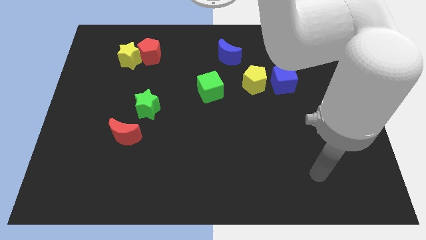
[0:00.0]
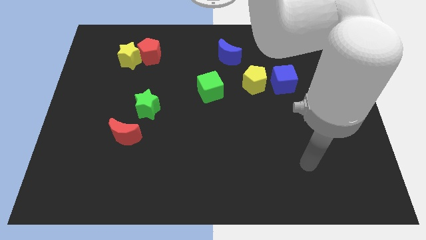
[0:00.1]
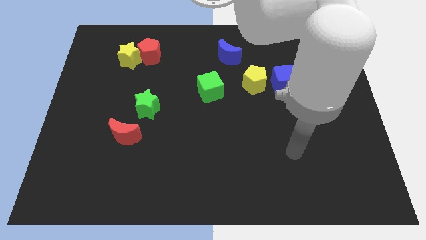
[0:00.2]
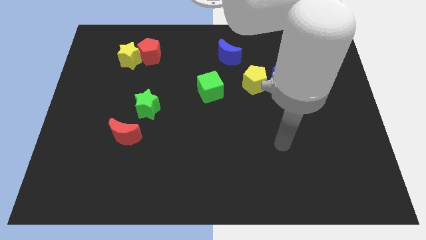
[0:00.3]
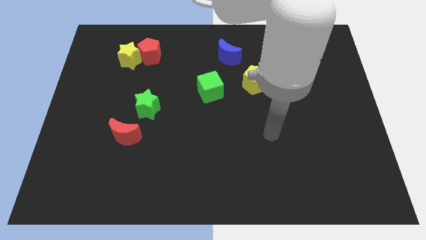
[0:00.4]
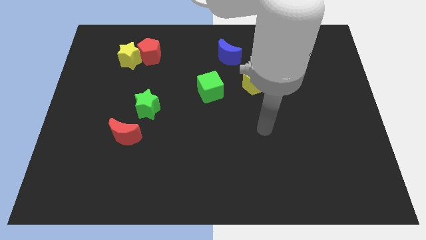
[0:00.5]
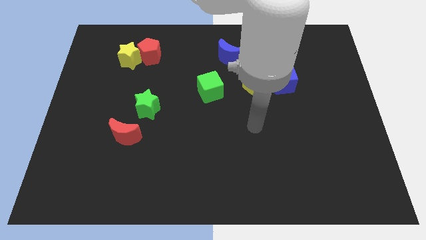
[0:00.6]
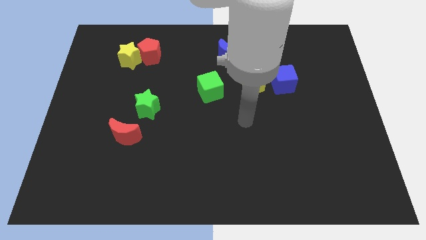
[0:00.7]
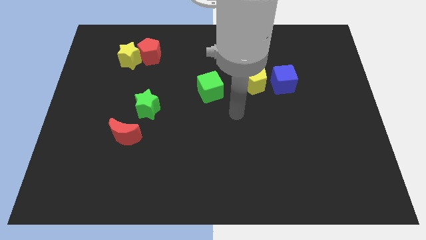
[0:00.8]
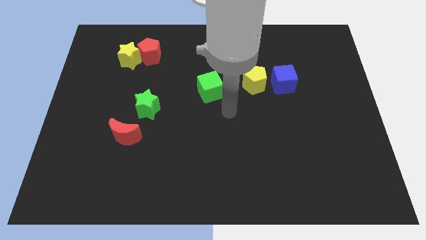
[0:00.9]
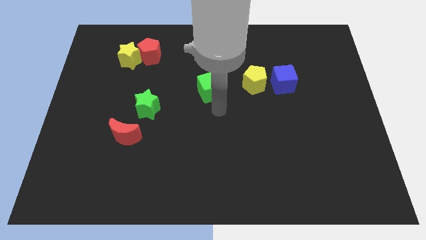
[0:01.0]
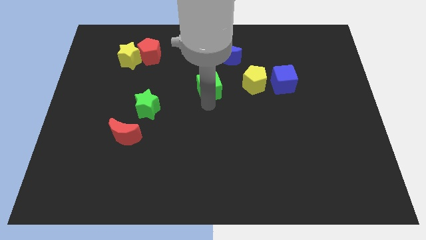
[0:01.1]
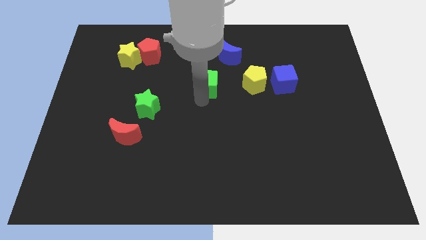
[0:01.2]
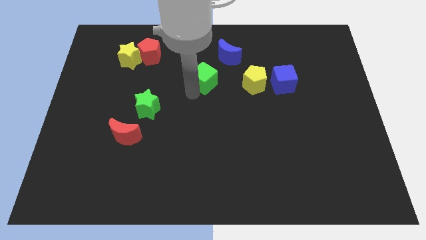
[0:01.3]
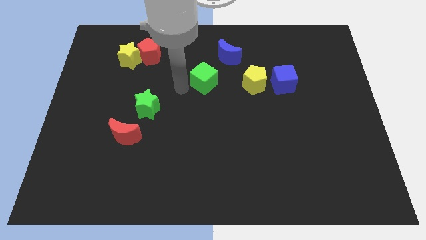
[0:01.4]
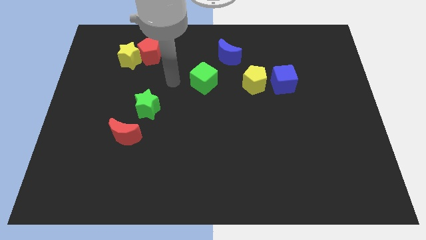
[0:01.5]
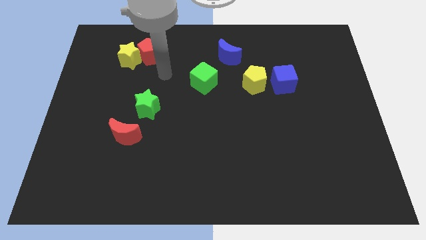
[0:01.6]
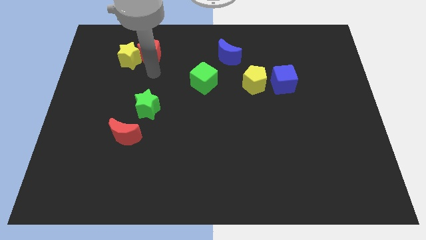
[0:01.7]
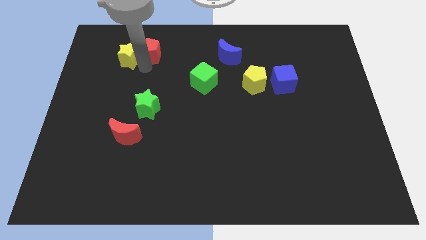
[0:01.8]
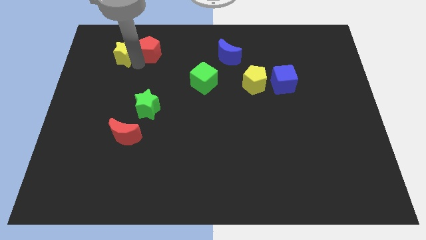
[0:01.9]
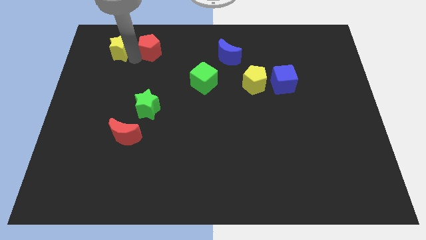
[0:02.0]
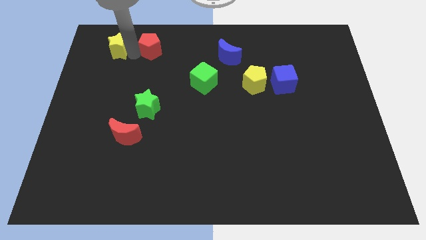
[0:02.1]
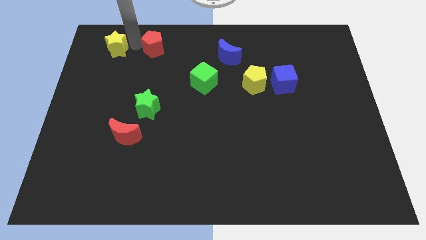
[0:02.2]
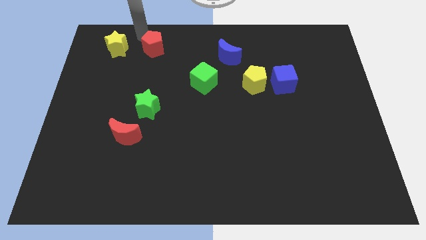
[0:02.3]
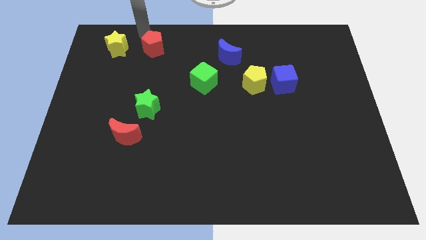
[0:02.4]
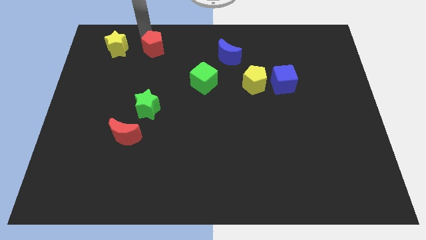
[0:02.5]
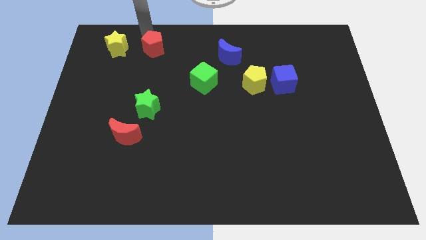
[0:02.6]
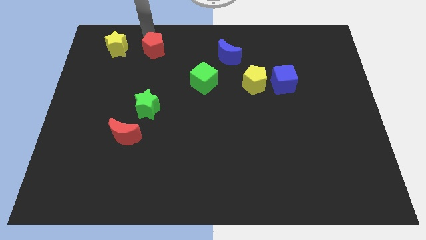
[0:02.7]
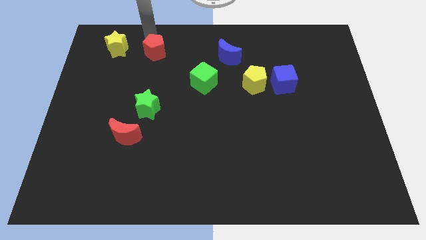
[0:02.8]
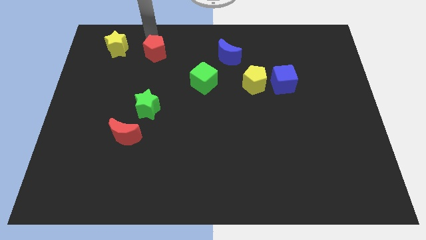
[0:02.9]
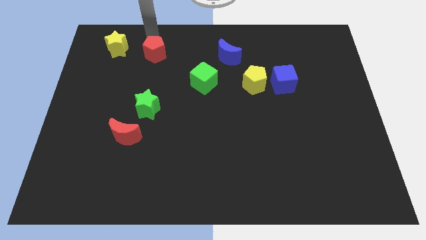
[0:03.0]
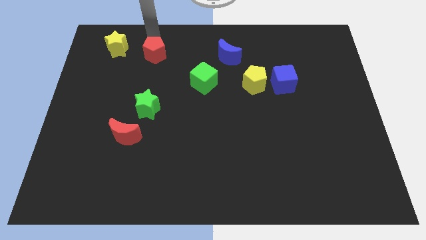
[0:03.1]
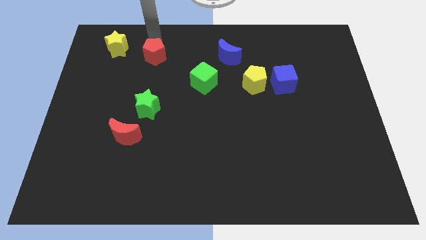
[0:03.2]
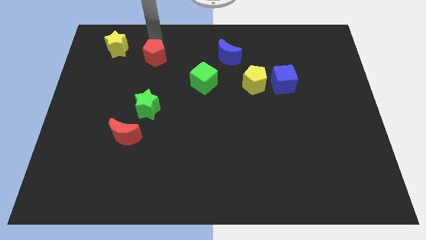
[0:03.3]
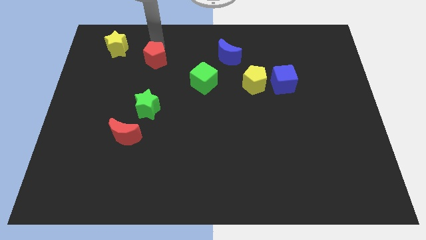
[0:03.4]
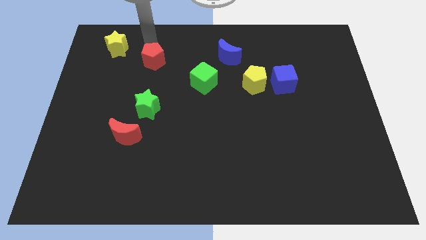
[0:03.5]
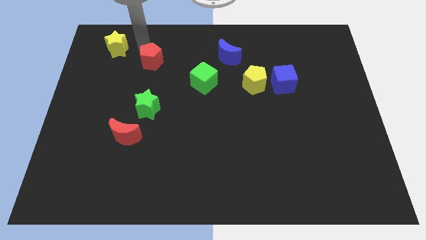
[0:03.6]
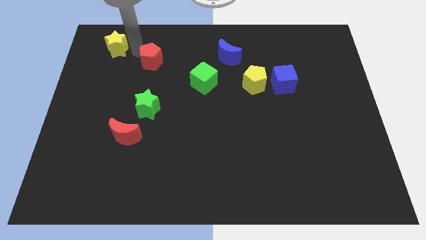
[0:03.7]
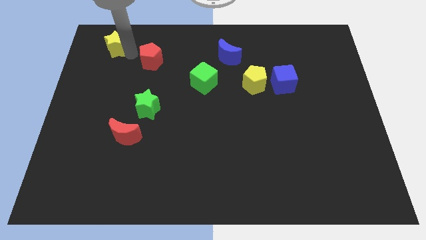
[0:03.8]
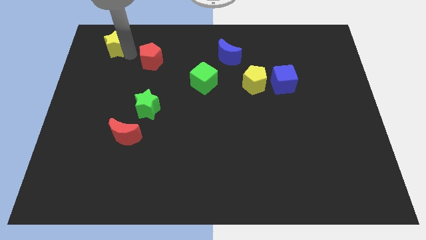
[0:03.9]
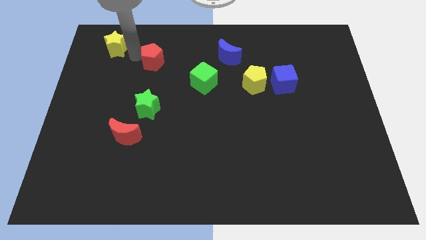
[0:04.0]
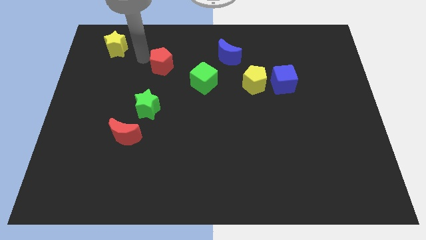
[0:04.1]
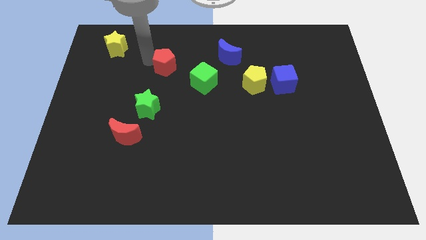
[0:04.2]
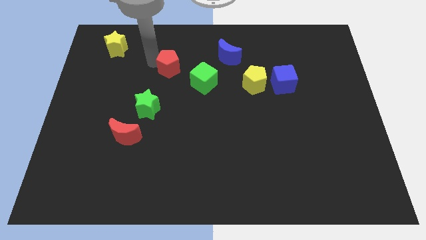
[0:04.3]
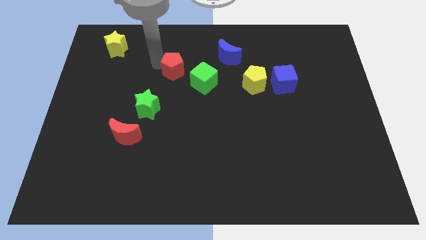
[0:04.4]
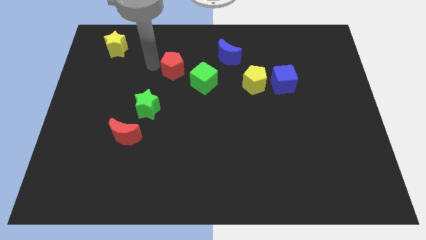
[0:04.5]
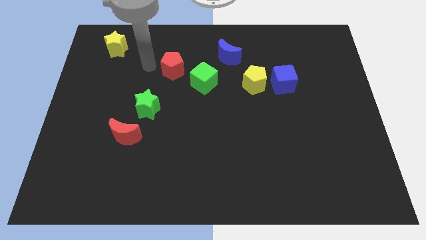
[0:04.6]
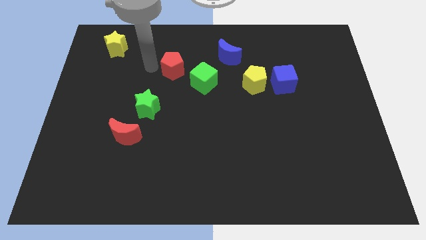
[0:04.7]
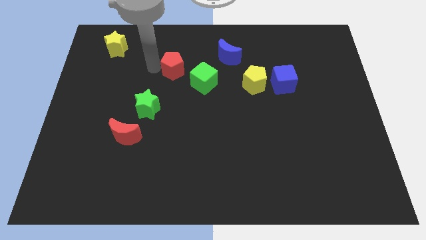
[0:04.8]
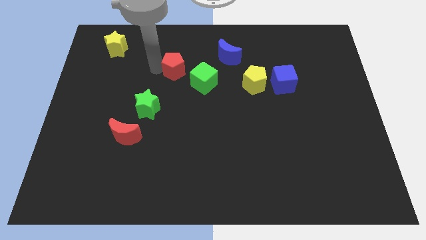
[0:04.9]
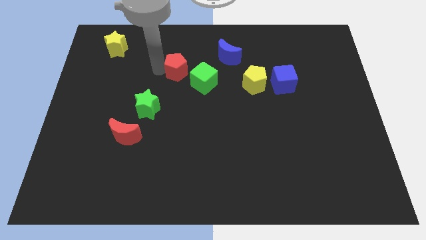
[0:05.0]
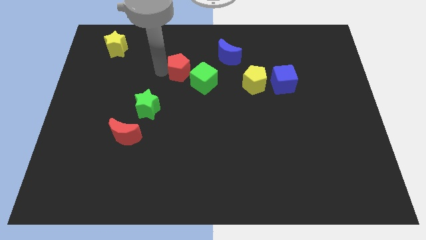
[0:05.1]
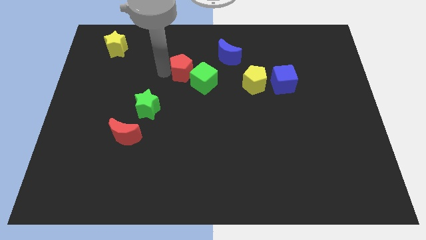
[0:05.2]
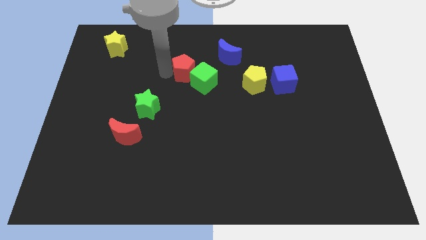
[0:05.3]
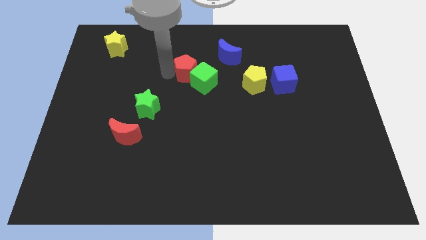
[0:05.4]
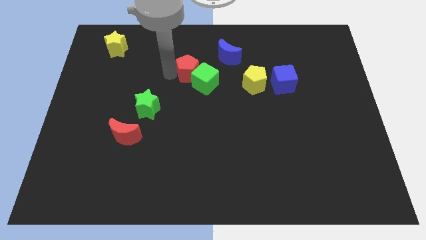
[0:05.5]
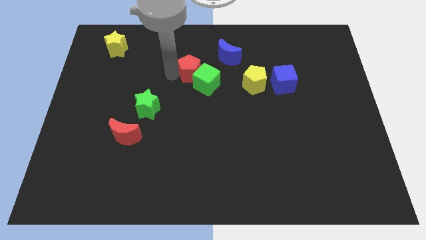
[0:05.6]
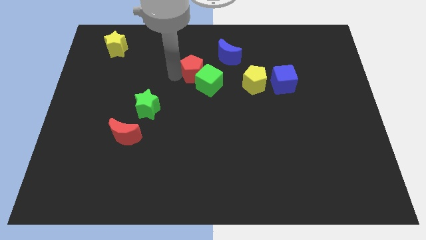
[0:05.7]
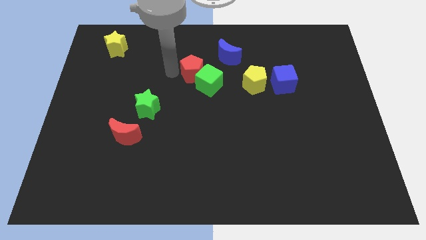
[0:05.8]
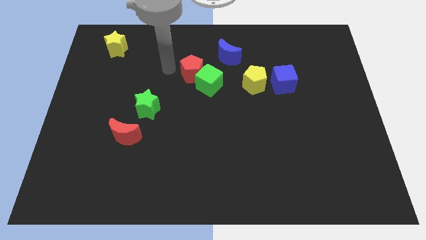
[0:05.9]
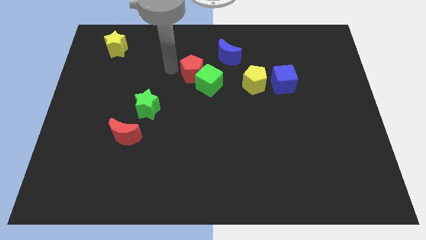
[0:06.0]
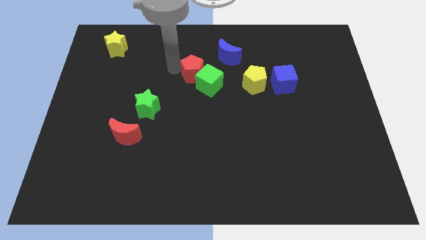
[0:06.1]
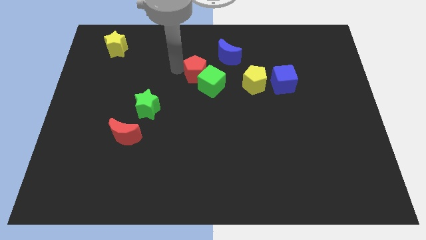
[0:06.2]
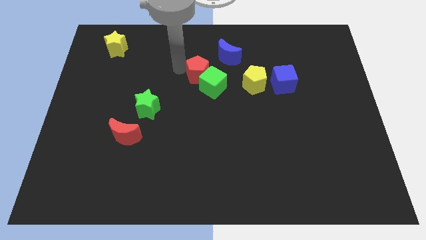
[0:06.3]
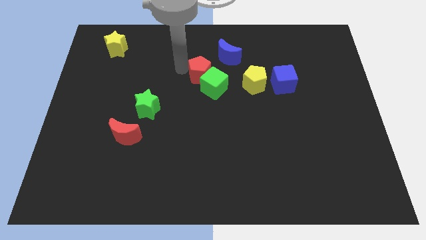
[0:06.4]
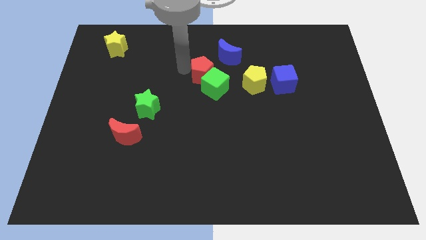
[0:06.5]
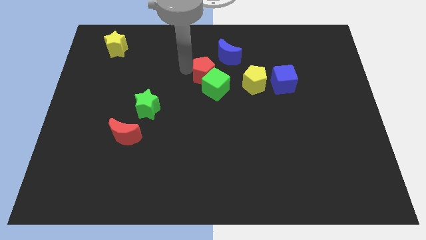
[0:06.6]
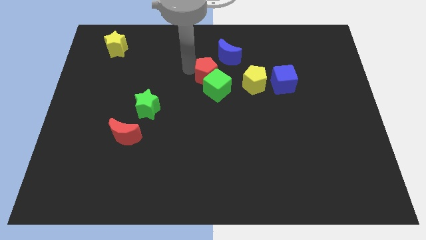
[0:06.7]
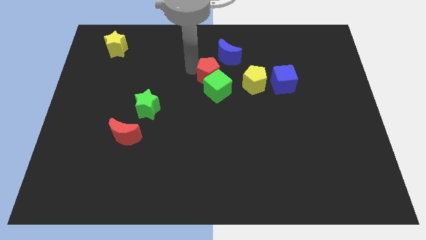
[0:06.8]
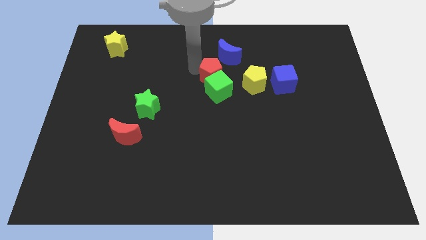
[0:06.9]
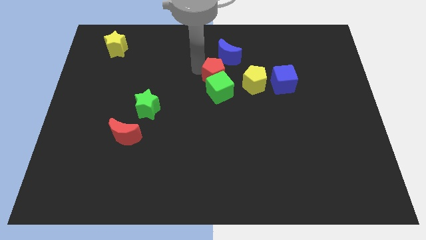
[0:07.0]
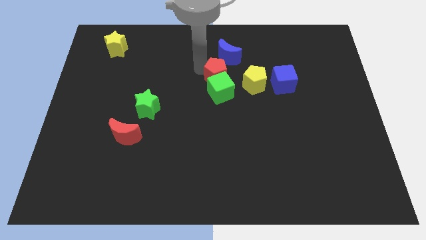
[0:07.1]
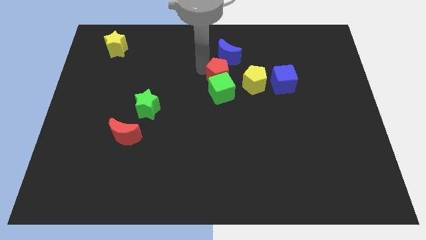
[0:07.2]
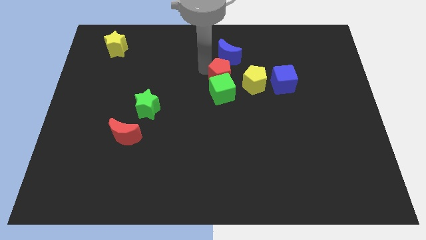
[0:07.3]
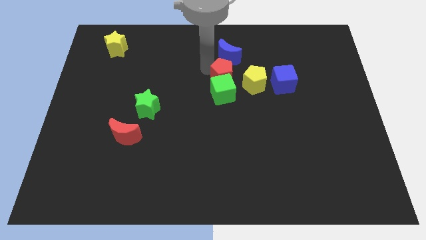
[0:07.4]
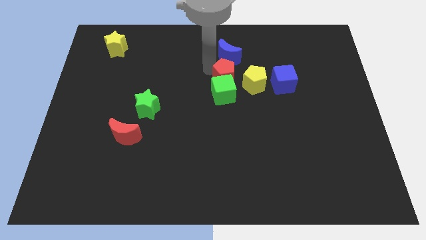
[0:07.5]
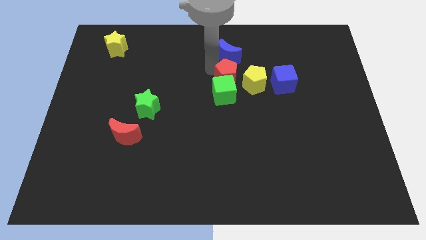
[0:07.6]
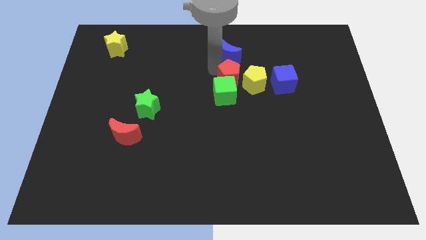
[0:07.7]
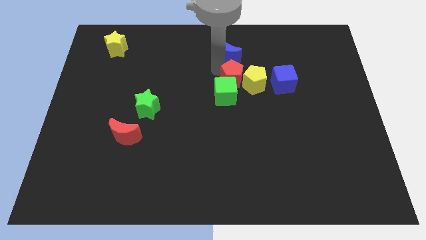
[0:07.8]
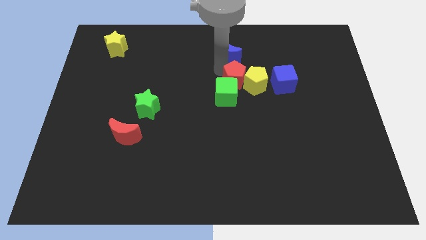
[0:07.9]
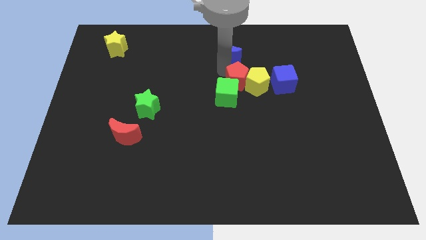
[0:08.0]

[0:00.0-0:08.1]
slide the red pentagon to the bottom left side of the yellow pentagon
